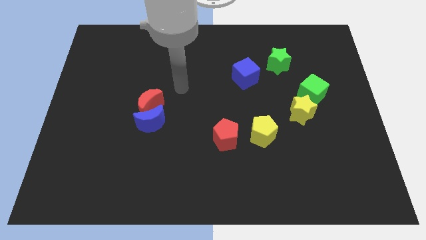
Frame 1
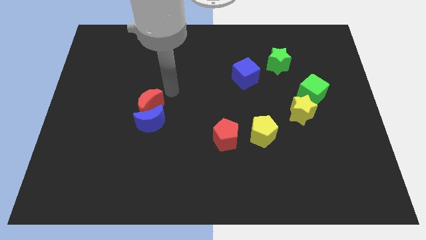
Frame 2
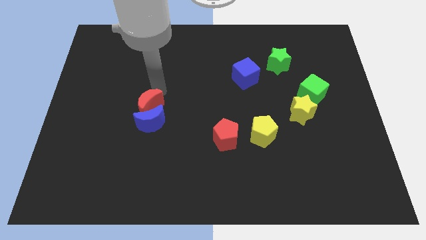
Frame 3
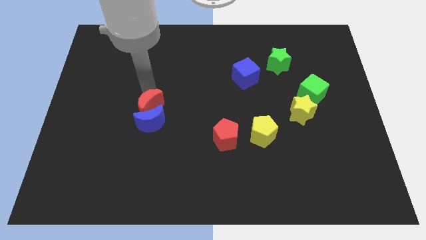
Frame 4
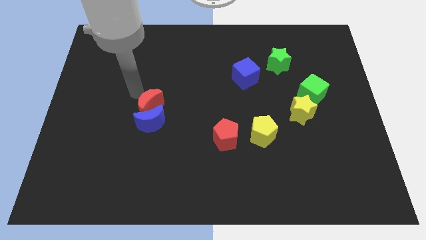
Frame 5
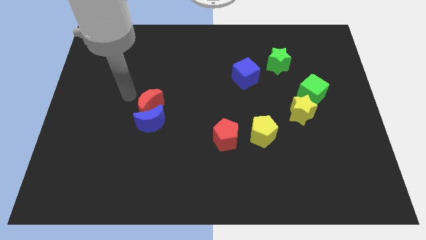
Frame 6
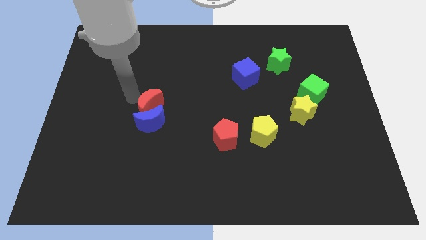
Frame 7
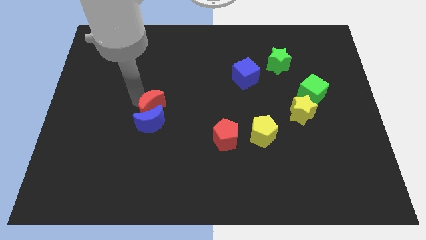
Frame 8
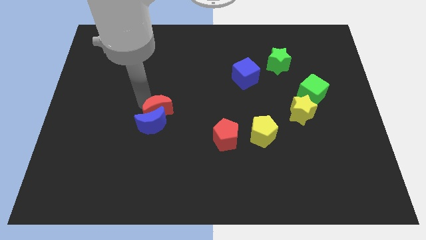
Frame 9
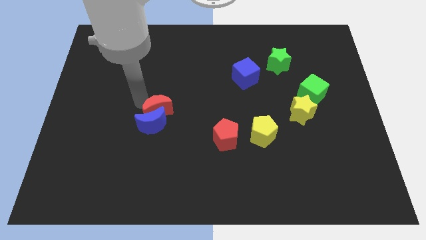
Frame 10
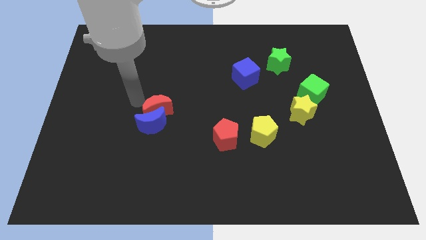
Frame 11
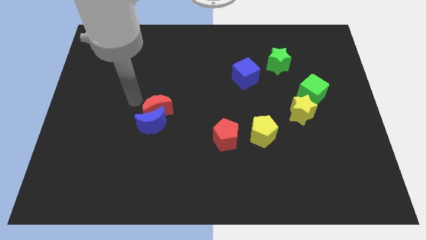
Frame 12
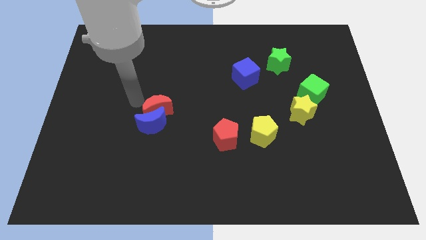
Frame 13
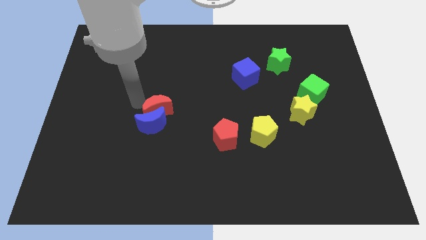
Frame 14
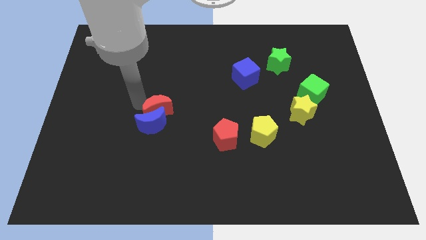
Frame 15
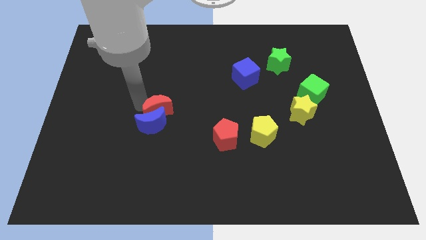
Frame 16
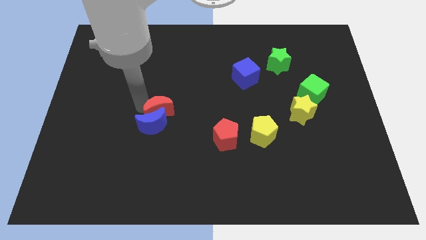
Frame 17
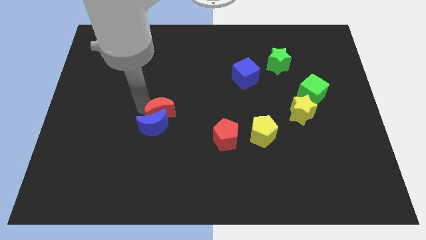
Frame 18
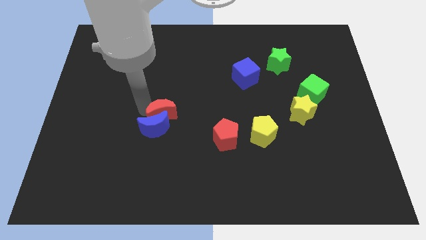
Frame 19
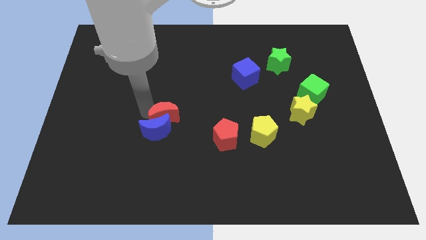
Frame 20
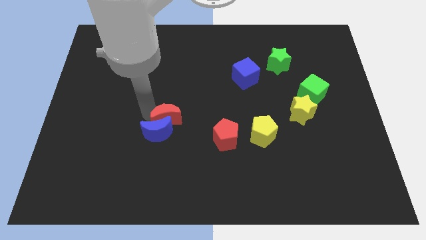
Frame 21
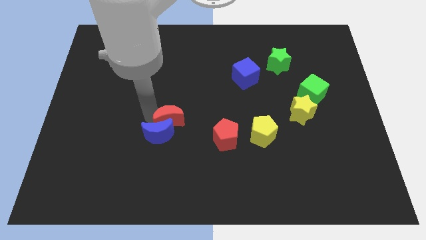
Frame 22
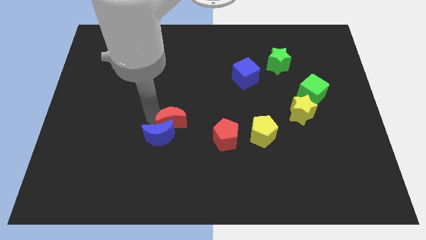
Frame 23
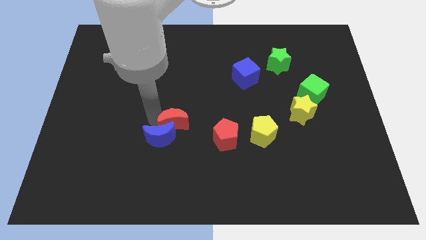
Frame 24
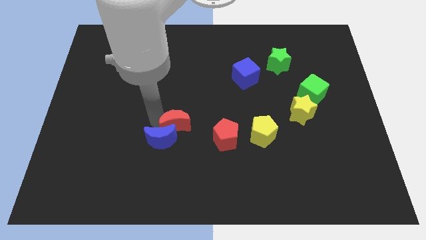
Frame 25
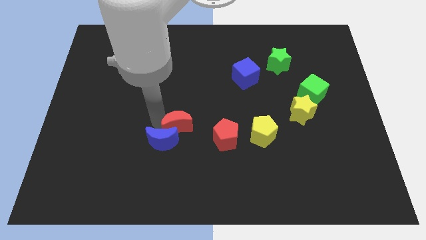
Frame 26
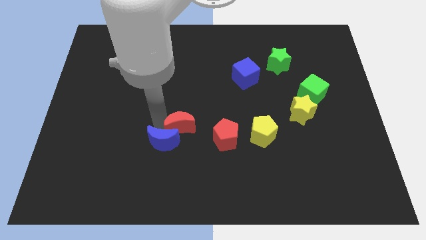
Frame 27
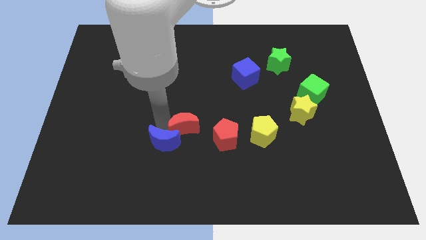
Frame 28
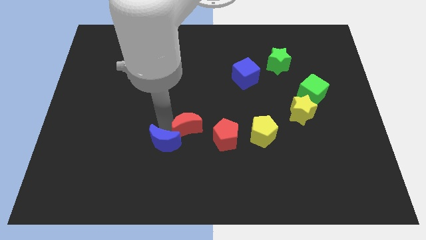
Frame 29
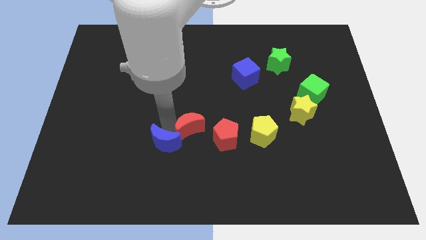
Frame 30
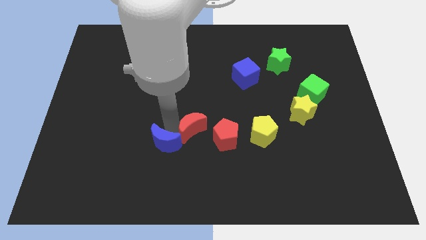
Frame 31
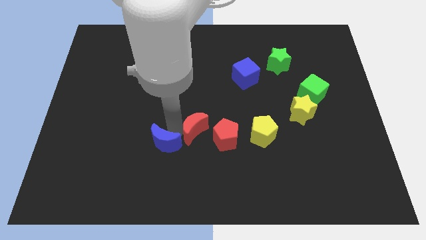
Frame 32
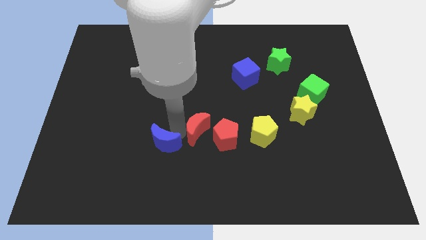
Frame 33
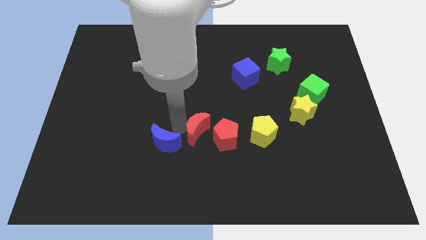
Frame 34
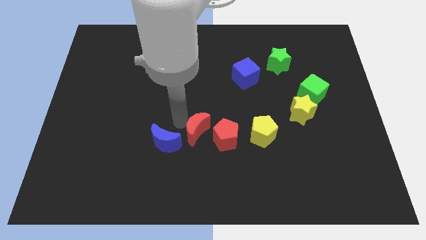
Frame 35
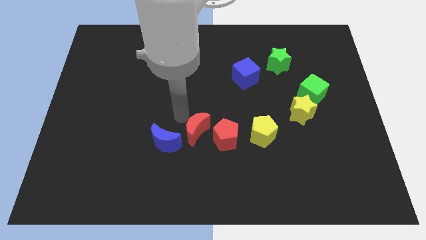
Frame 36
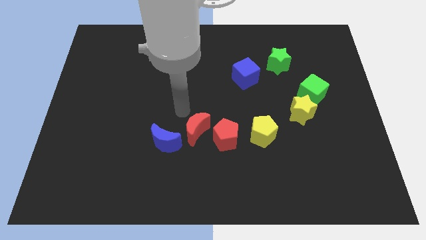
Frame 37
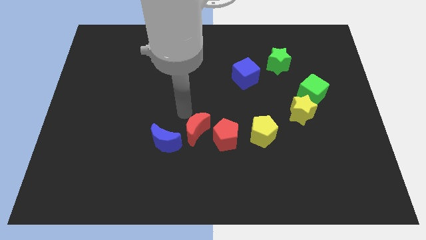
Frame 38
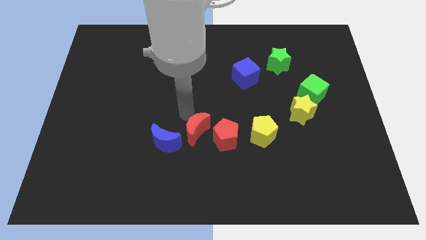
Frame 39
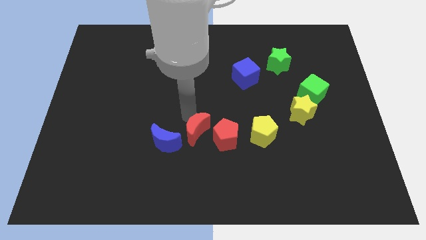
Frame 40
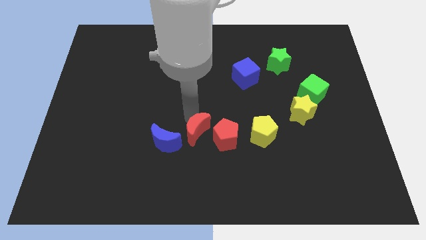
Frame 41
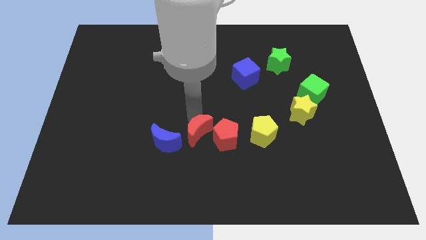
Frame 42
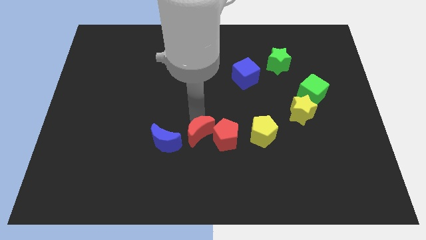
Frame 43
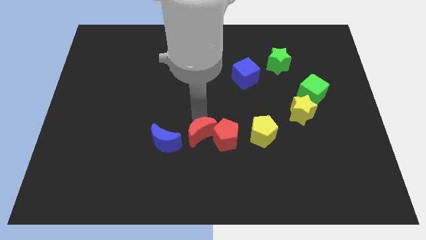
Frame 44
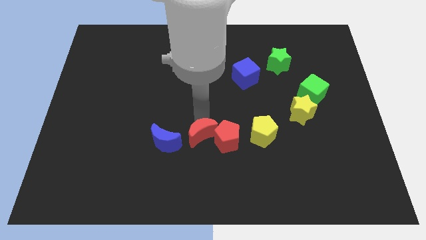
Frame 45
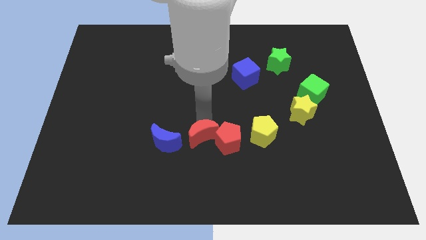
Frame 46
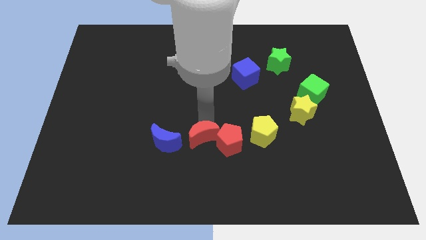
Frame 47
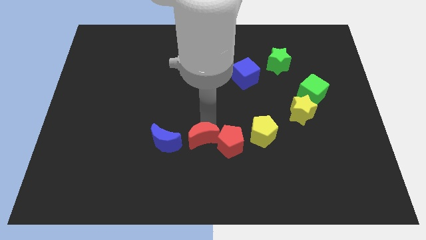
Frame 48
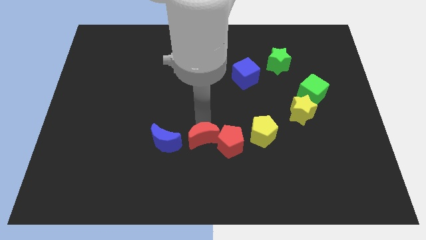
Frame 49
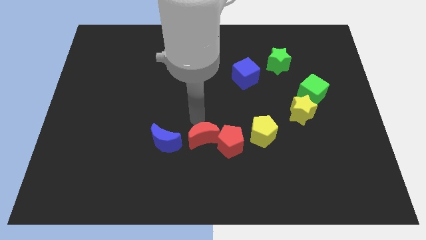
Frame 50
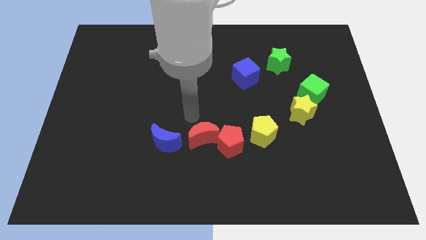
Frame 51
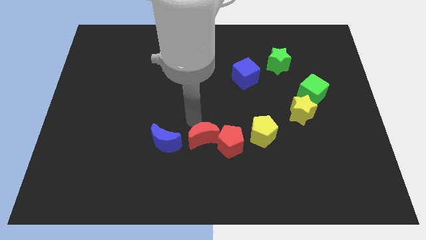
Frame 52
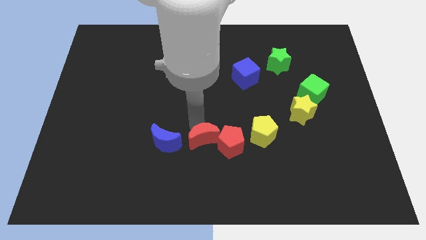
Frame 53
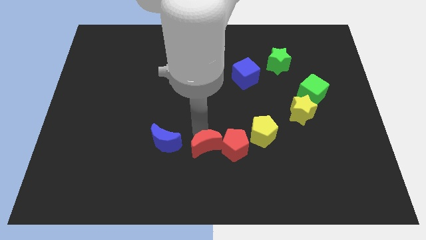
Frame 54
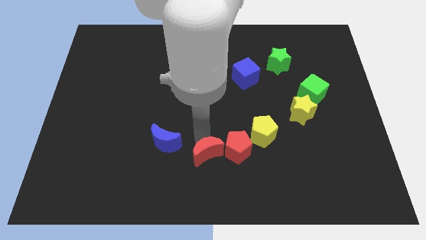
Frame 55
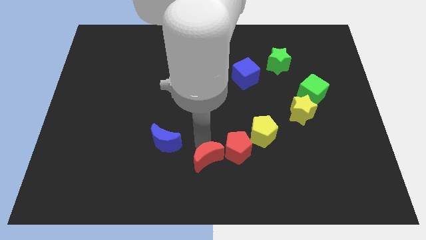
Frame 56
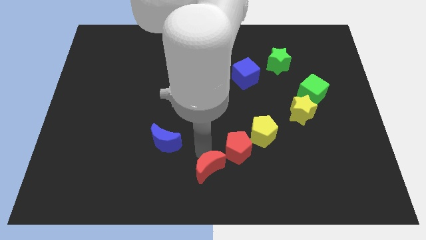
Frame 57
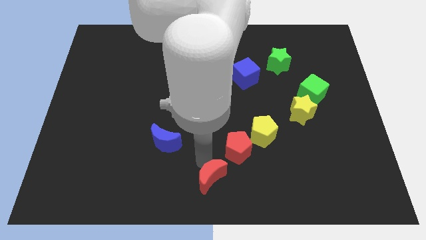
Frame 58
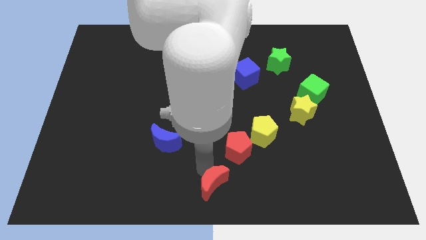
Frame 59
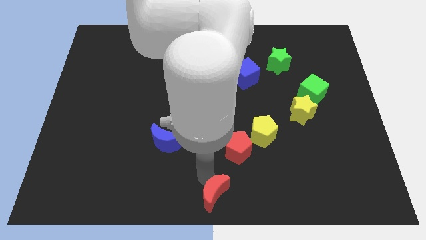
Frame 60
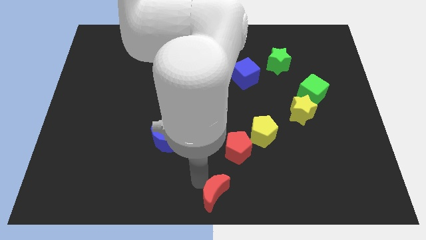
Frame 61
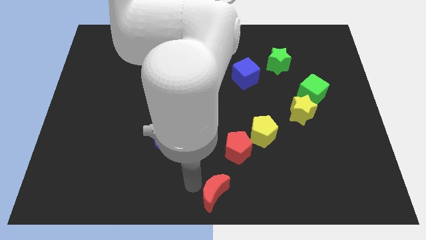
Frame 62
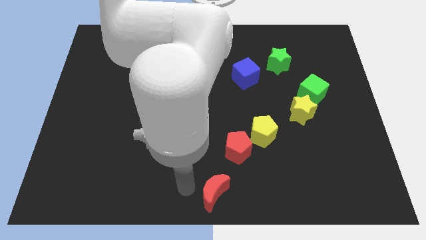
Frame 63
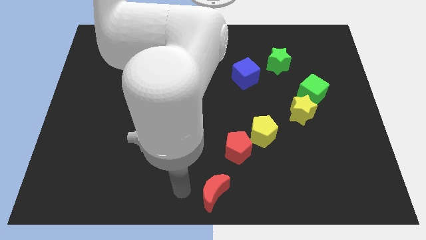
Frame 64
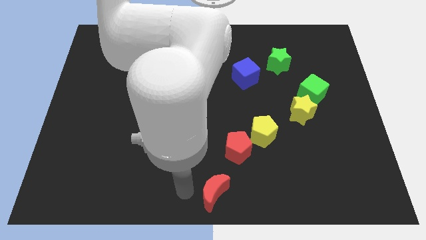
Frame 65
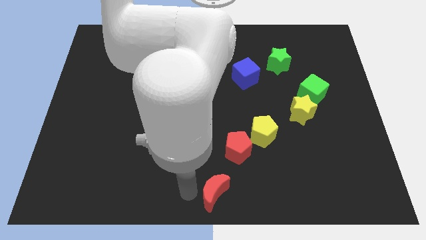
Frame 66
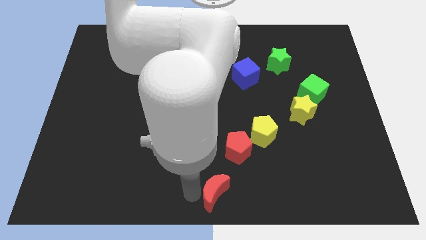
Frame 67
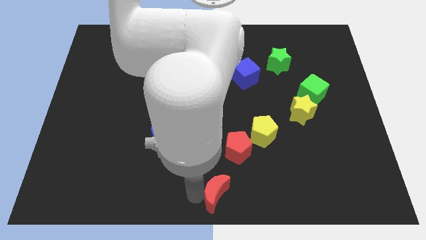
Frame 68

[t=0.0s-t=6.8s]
move the red moon below the red pentagon

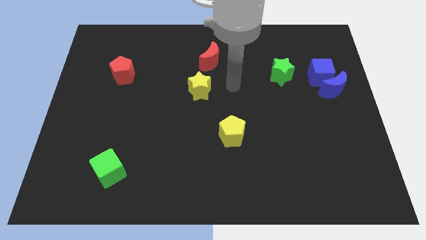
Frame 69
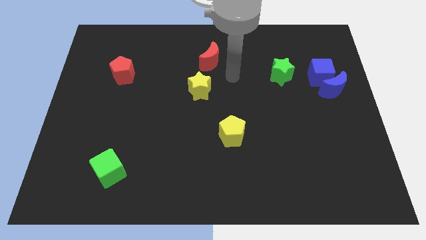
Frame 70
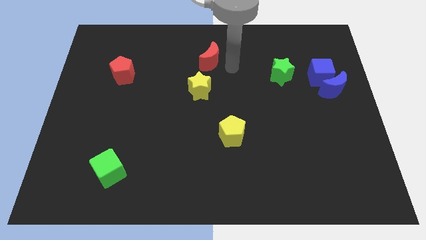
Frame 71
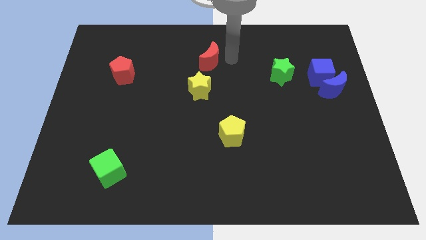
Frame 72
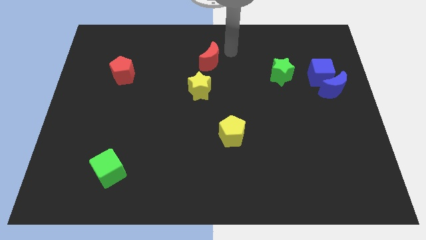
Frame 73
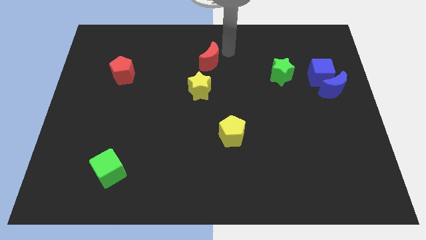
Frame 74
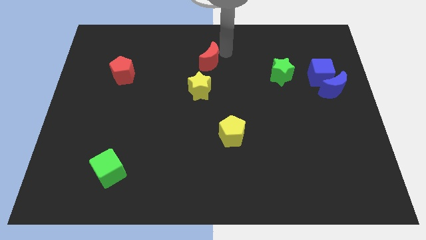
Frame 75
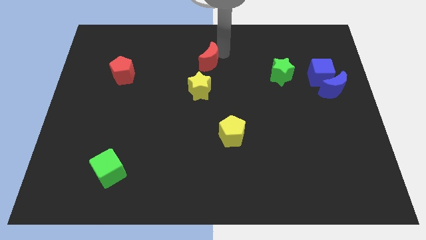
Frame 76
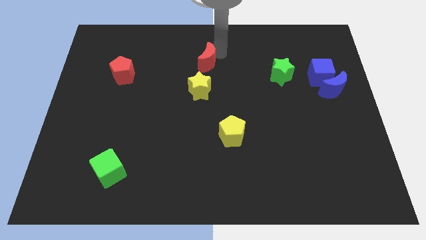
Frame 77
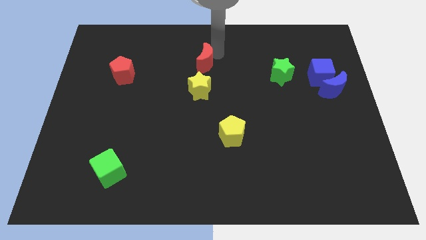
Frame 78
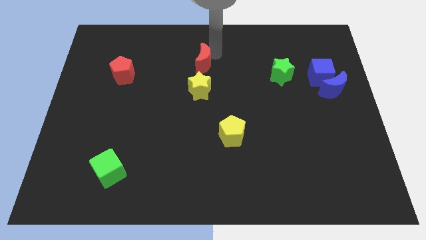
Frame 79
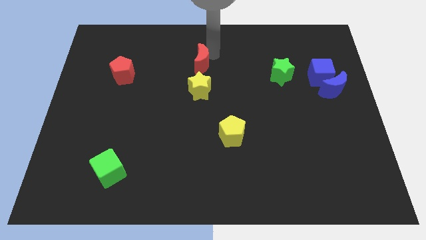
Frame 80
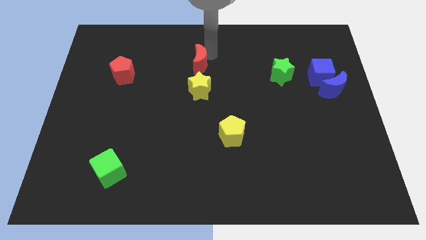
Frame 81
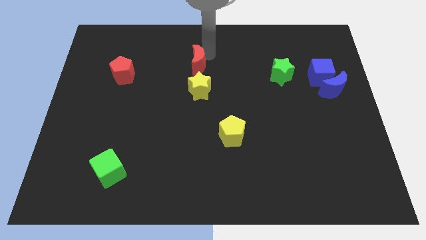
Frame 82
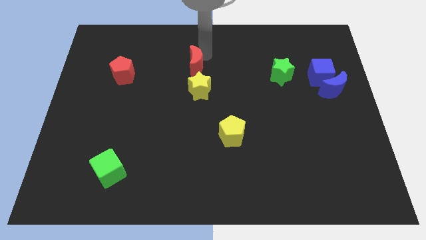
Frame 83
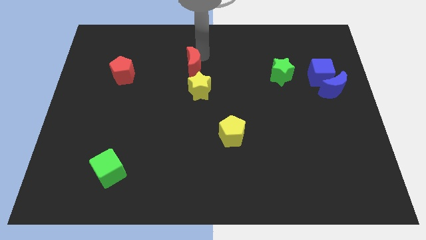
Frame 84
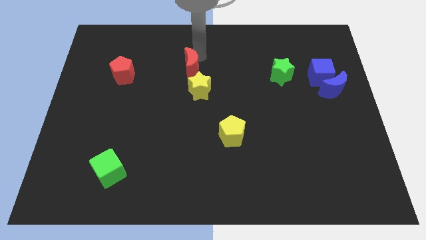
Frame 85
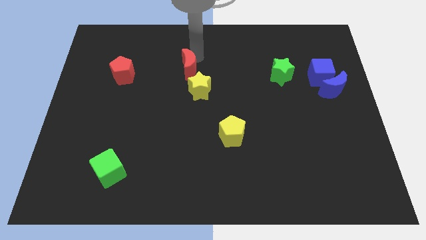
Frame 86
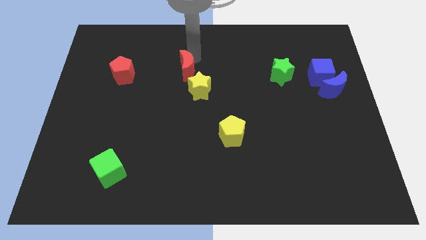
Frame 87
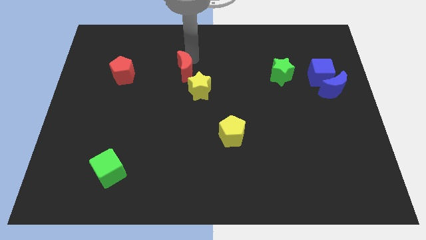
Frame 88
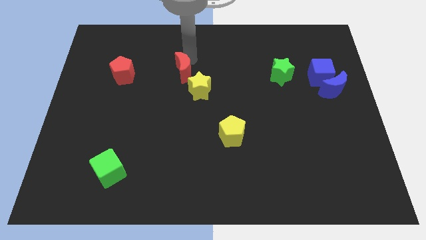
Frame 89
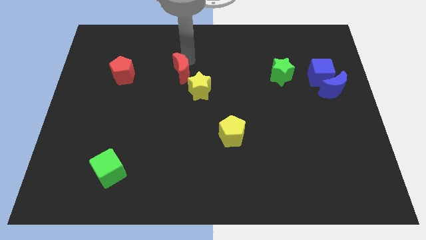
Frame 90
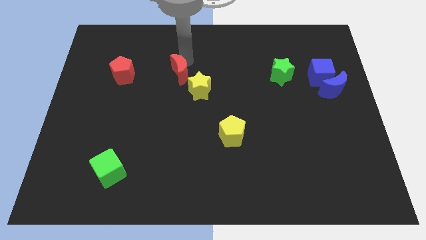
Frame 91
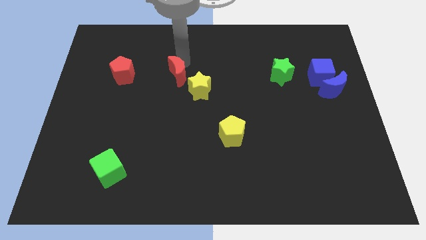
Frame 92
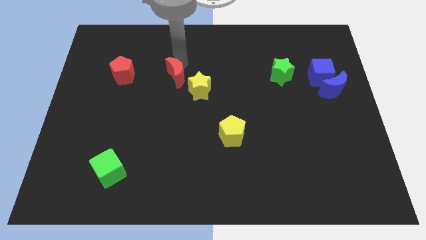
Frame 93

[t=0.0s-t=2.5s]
push the red moon to the left side of the yellow star
